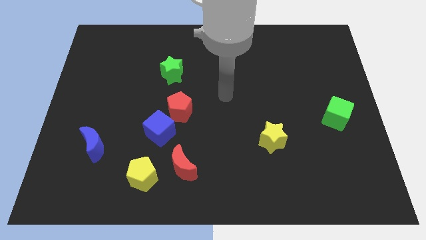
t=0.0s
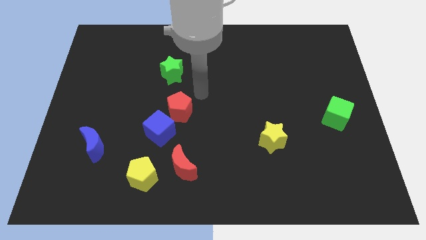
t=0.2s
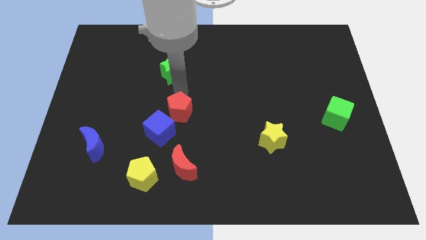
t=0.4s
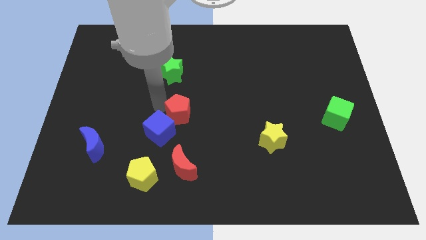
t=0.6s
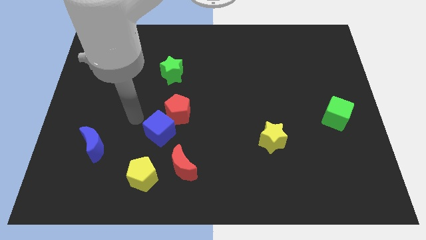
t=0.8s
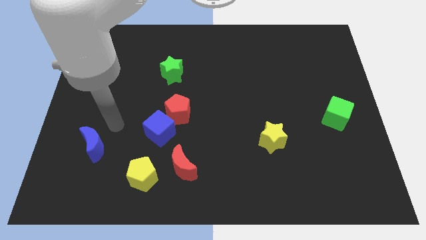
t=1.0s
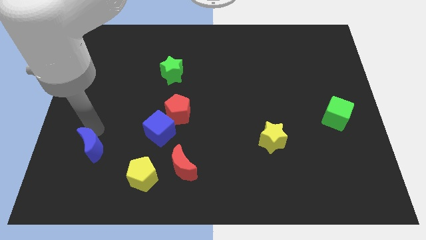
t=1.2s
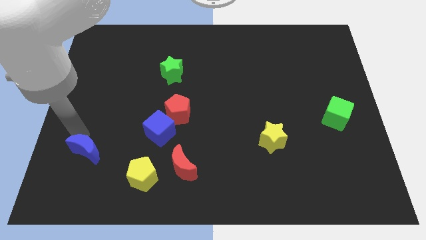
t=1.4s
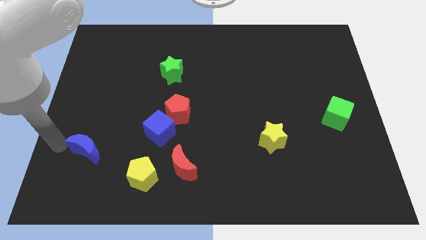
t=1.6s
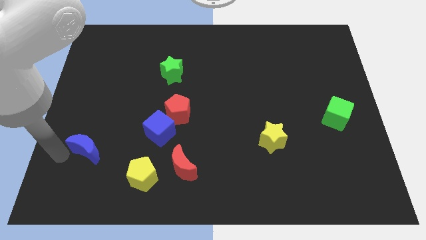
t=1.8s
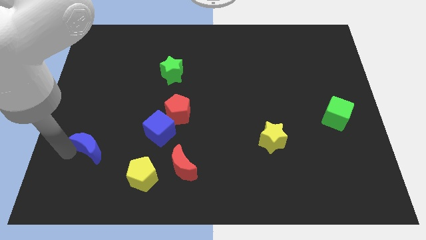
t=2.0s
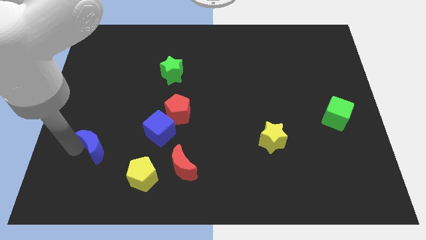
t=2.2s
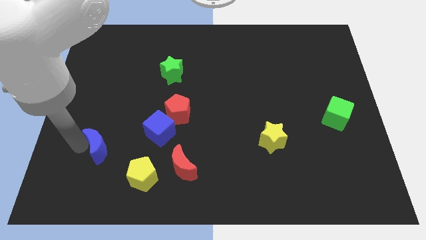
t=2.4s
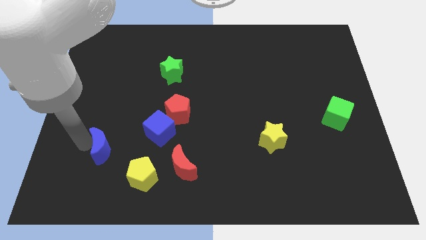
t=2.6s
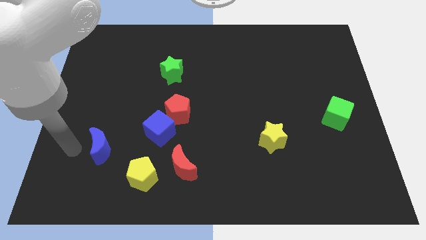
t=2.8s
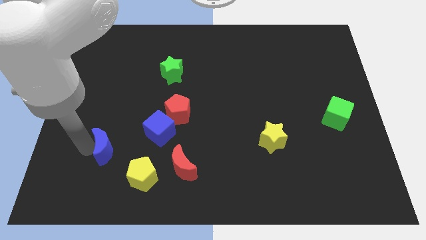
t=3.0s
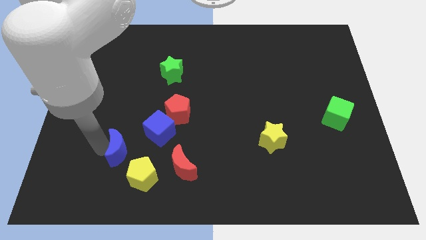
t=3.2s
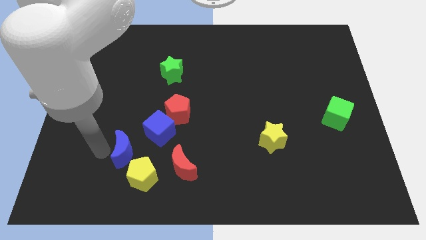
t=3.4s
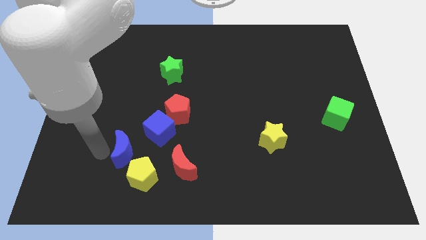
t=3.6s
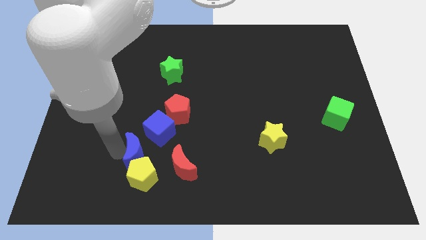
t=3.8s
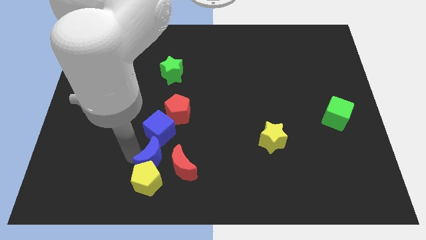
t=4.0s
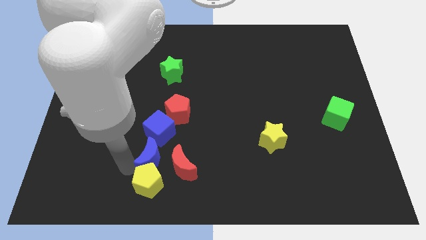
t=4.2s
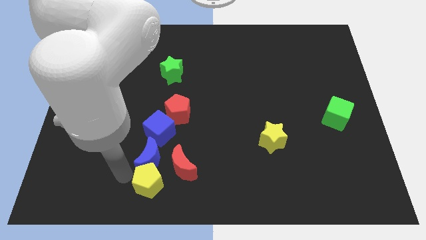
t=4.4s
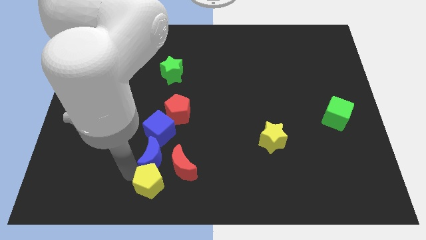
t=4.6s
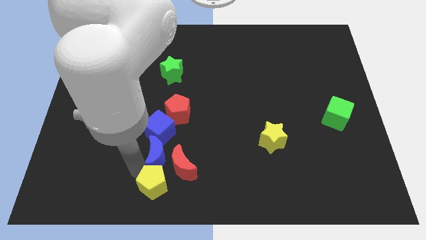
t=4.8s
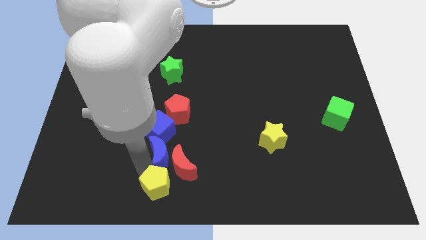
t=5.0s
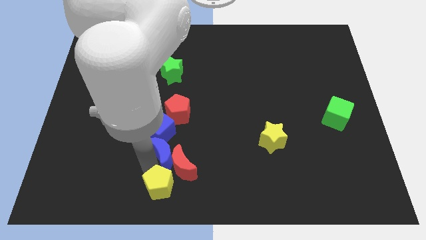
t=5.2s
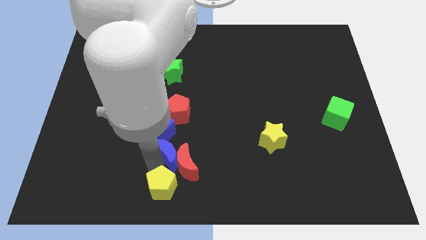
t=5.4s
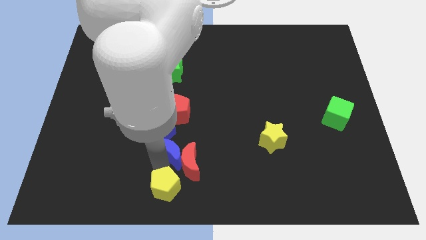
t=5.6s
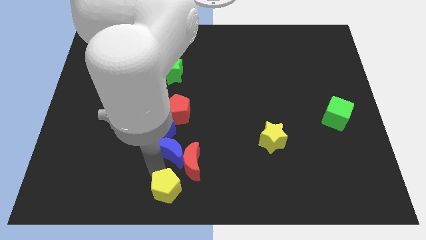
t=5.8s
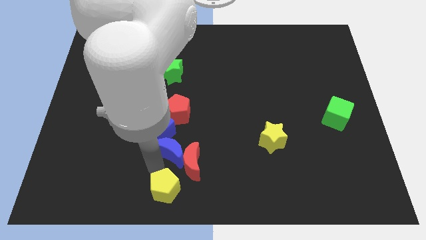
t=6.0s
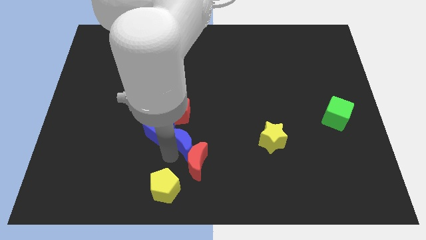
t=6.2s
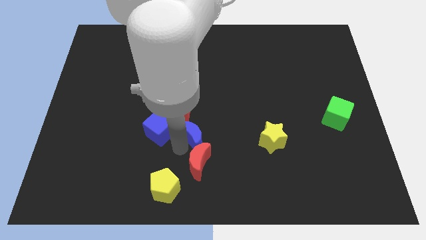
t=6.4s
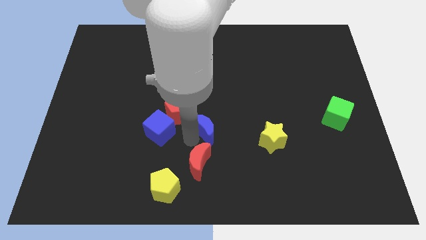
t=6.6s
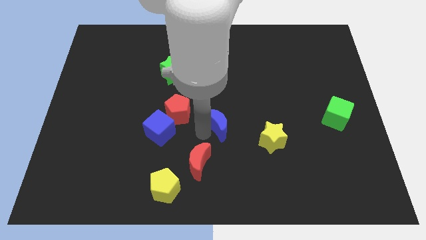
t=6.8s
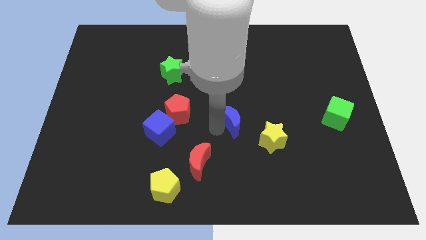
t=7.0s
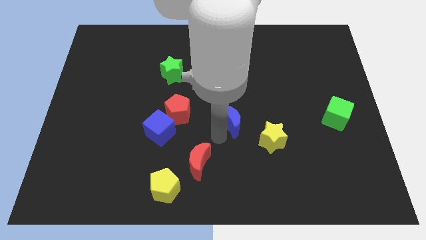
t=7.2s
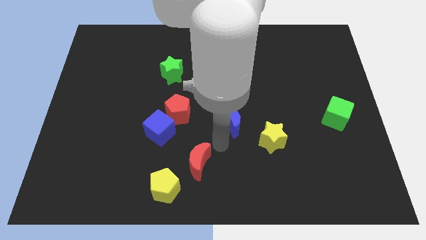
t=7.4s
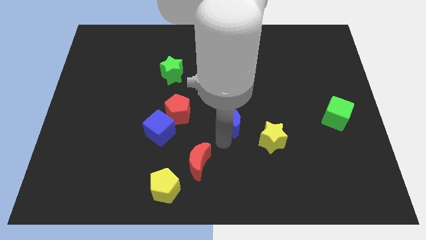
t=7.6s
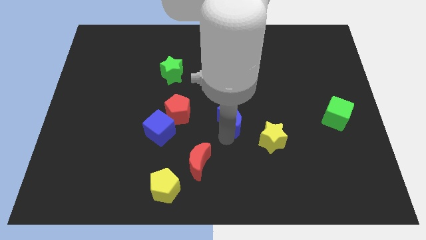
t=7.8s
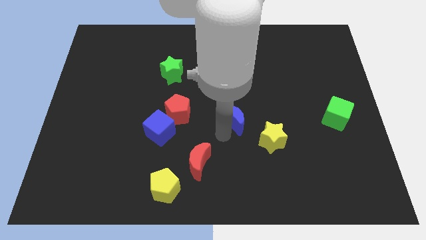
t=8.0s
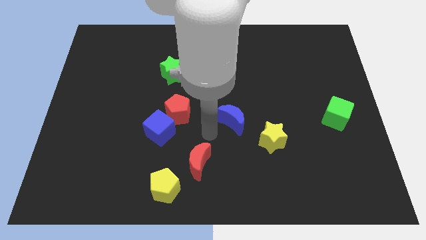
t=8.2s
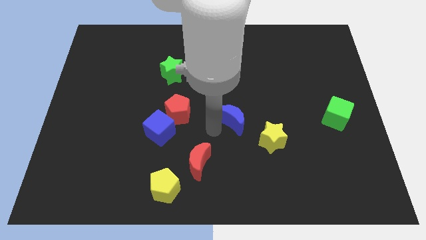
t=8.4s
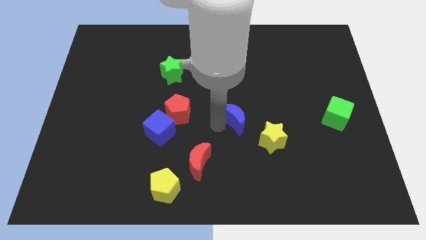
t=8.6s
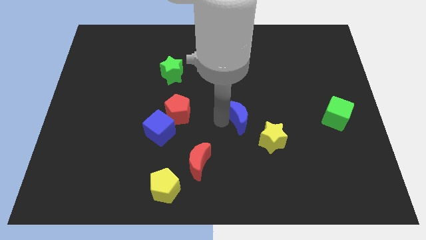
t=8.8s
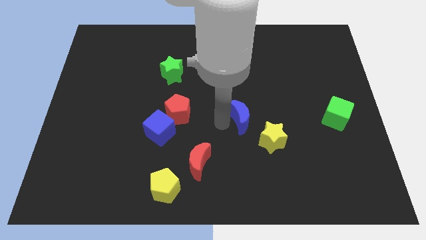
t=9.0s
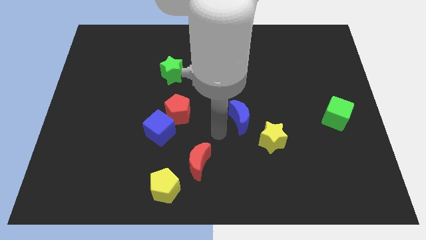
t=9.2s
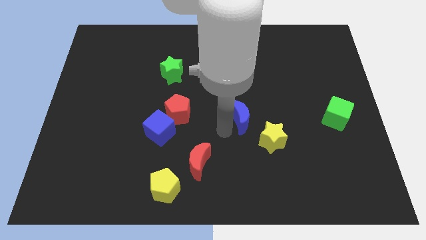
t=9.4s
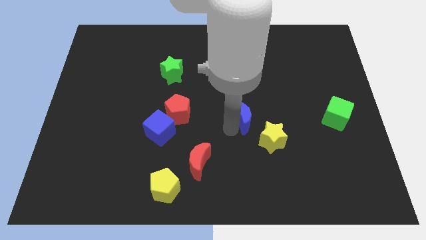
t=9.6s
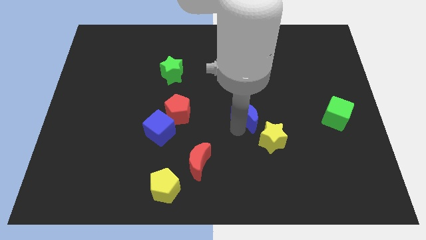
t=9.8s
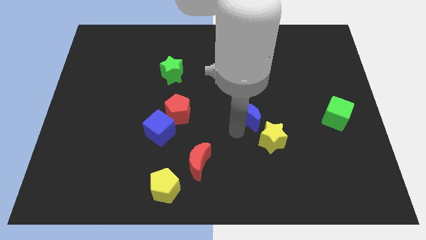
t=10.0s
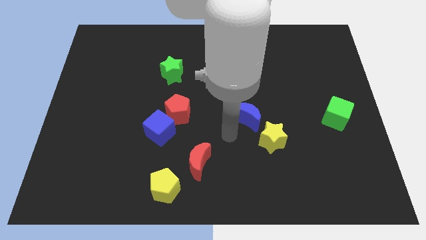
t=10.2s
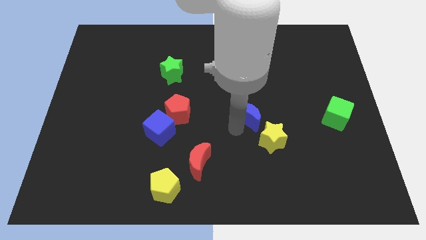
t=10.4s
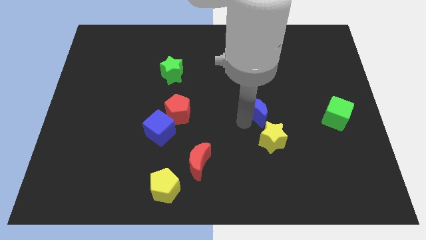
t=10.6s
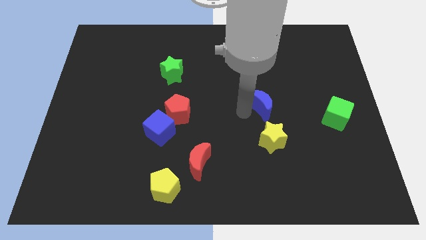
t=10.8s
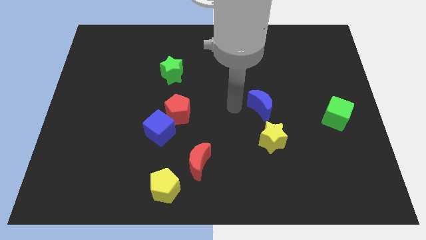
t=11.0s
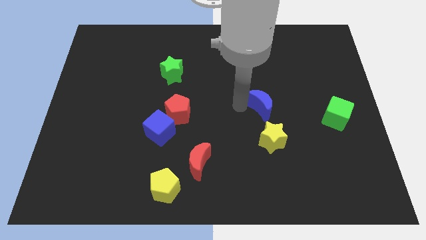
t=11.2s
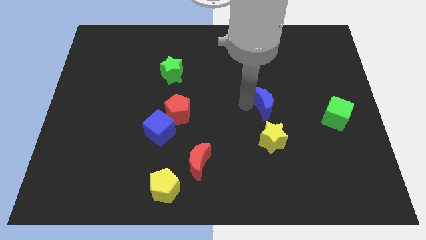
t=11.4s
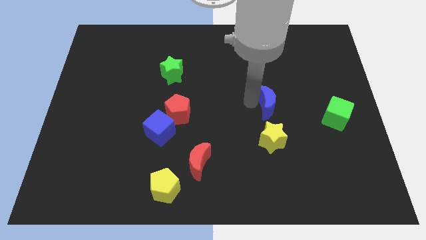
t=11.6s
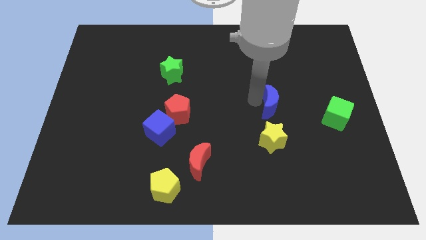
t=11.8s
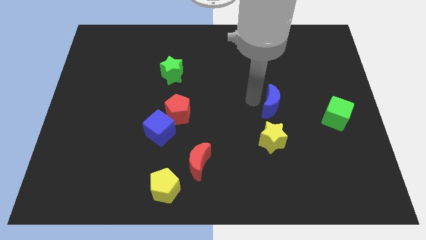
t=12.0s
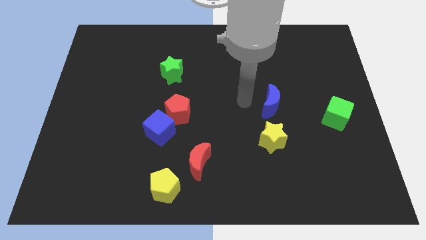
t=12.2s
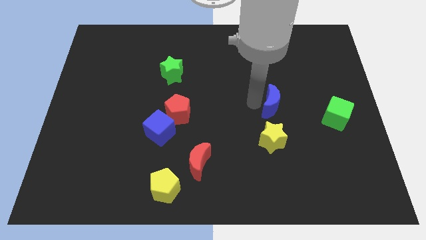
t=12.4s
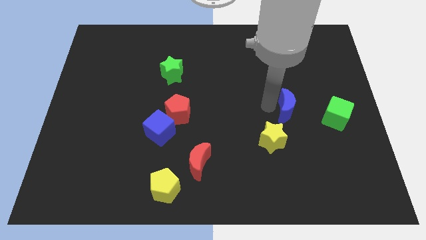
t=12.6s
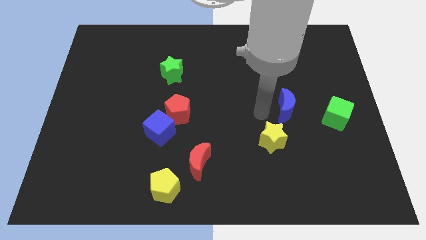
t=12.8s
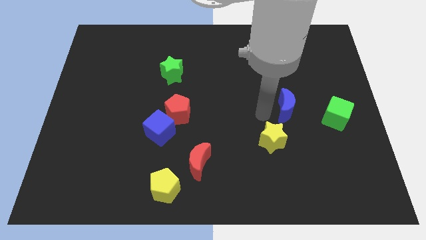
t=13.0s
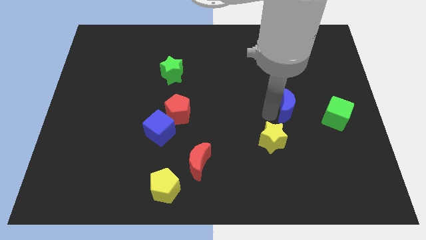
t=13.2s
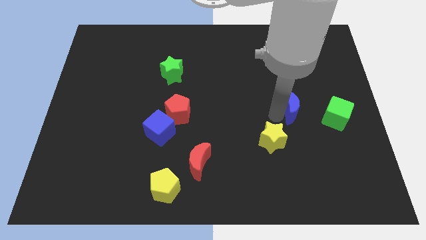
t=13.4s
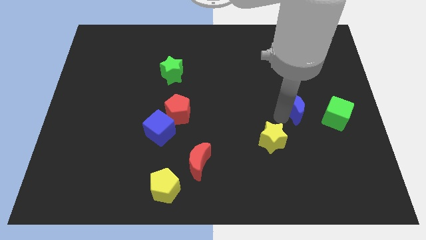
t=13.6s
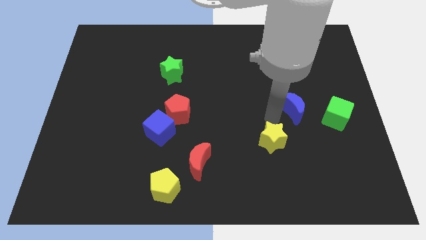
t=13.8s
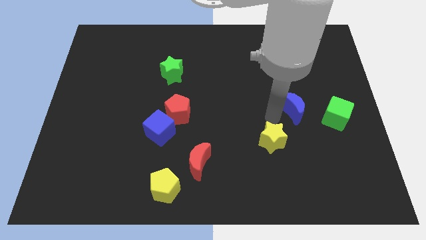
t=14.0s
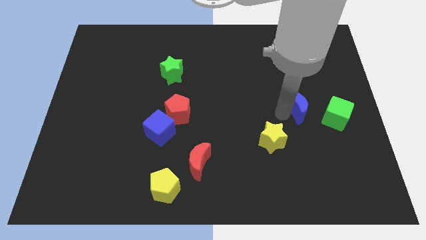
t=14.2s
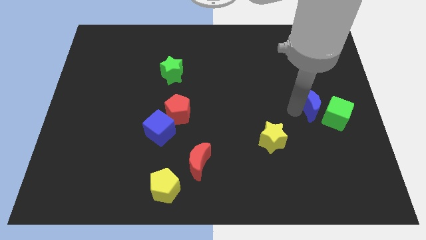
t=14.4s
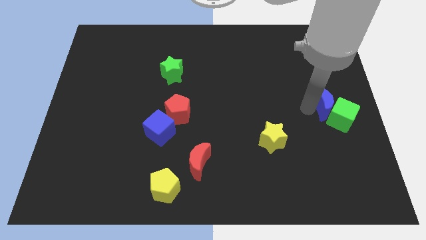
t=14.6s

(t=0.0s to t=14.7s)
move the blue moon to the right side
